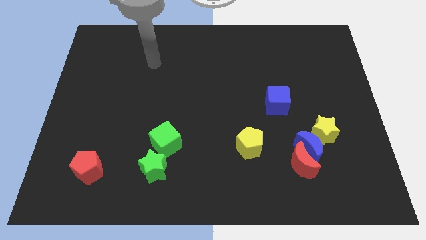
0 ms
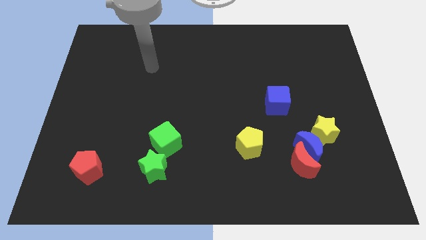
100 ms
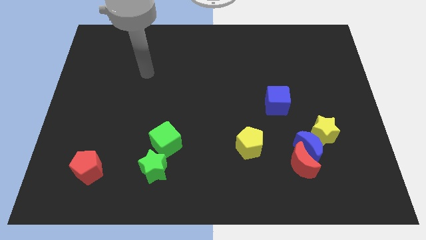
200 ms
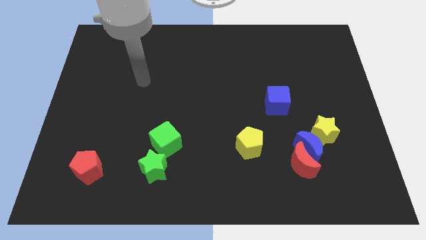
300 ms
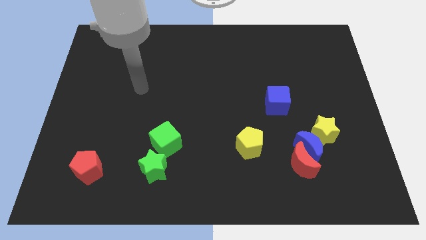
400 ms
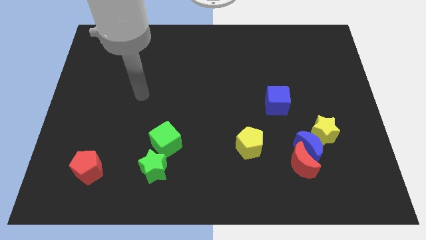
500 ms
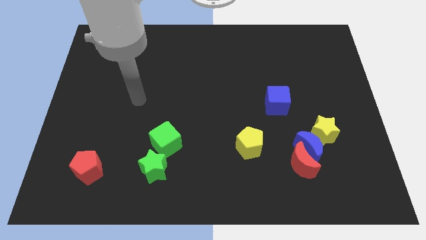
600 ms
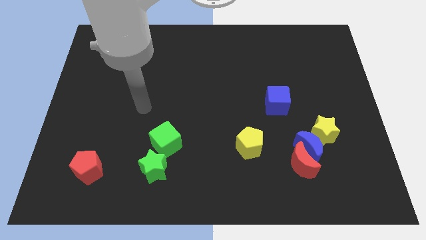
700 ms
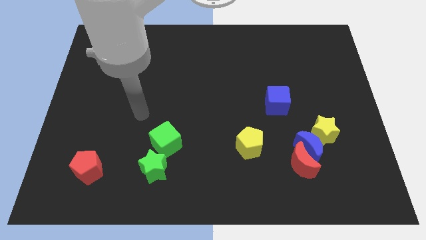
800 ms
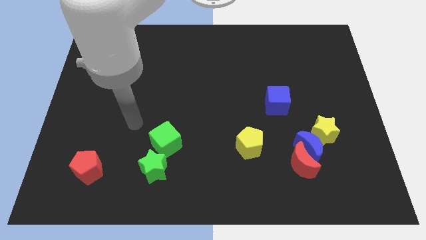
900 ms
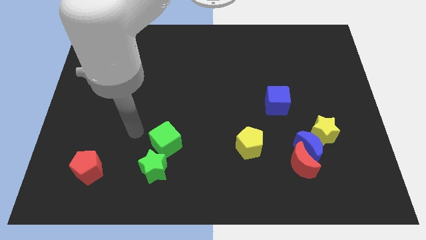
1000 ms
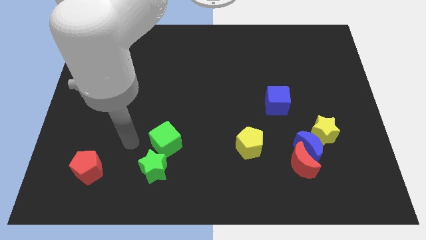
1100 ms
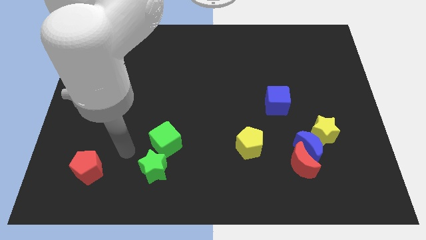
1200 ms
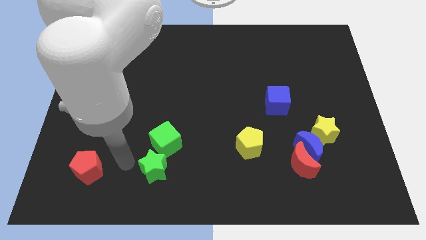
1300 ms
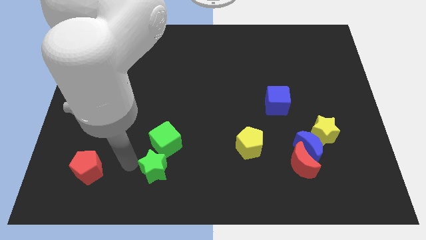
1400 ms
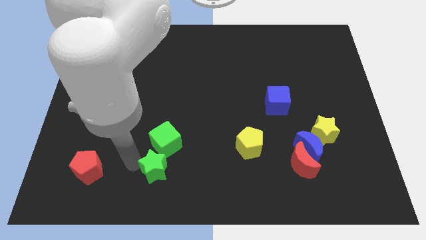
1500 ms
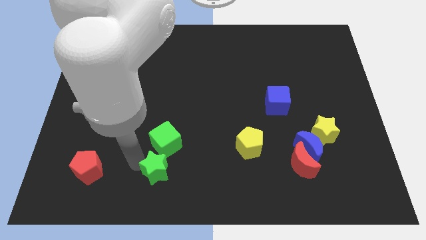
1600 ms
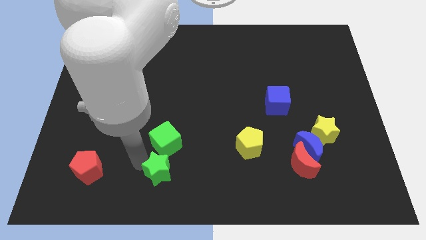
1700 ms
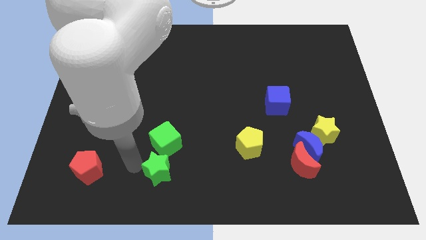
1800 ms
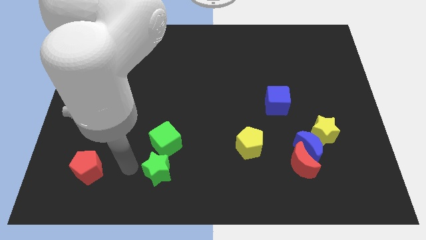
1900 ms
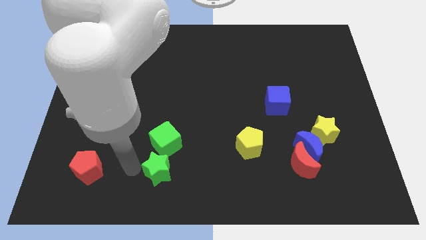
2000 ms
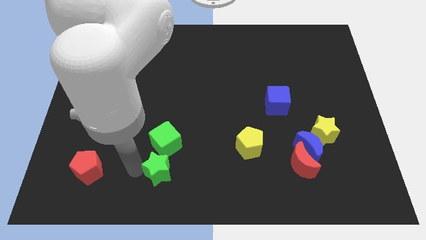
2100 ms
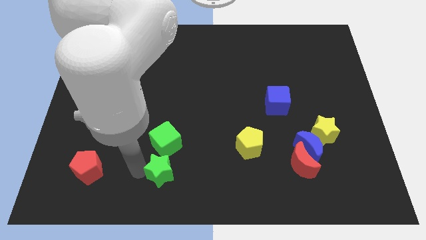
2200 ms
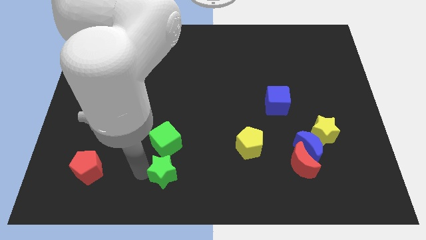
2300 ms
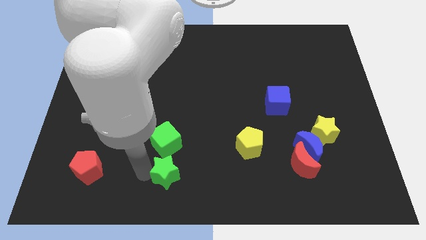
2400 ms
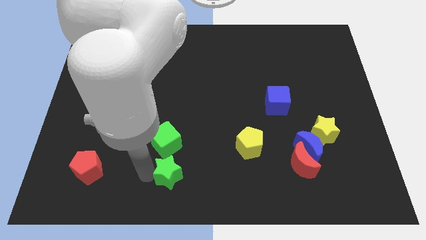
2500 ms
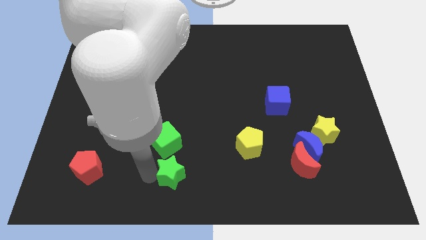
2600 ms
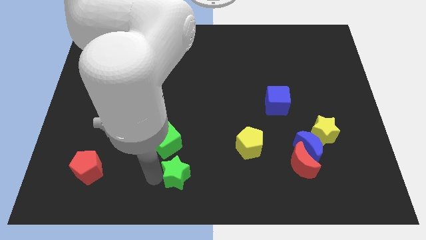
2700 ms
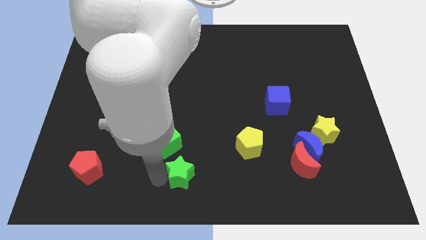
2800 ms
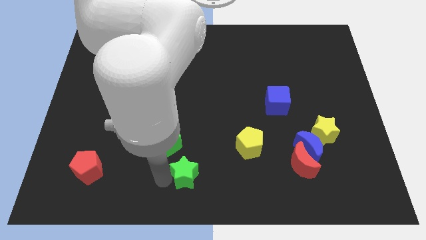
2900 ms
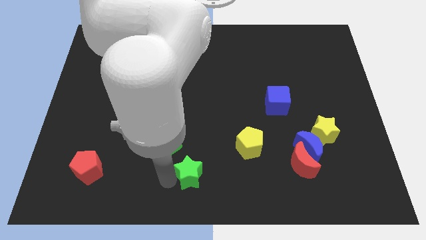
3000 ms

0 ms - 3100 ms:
slightly push the green star right

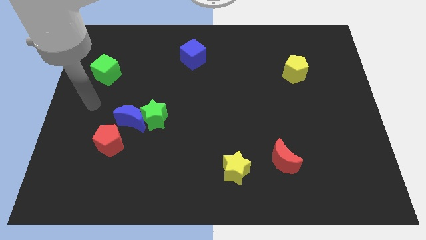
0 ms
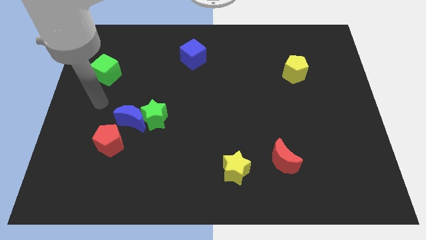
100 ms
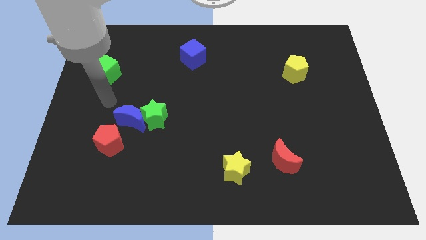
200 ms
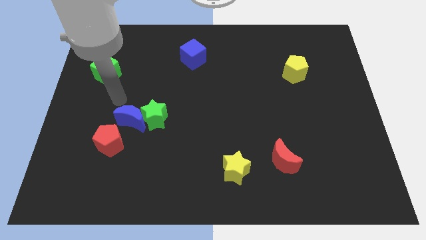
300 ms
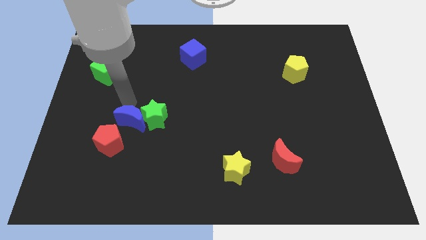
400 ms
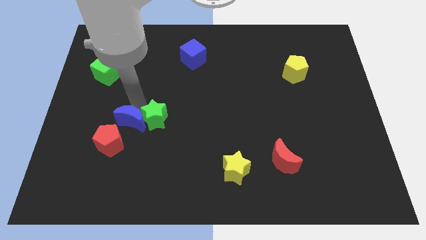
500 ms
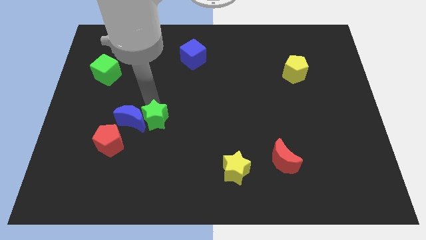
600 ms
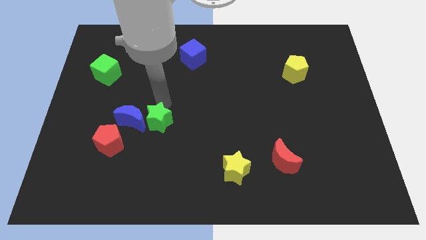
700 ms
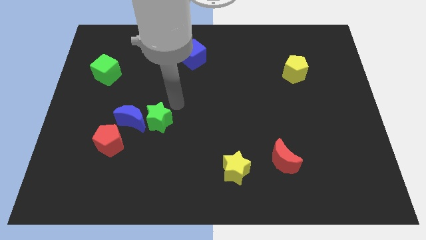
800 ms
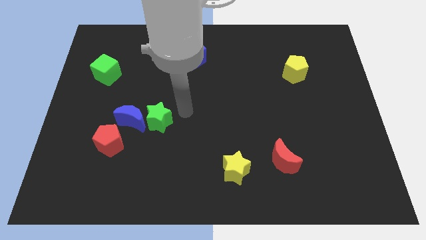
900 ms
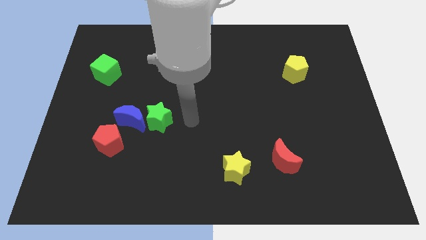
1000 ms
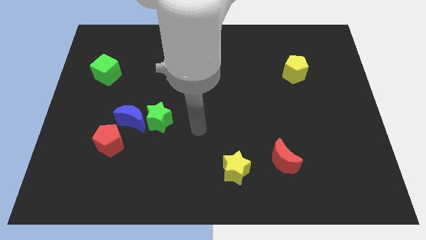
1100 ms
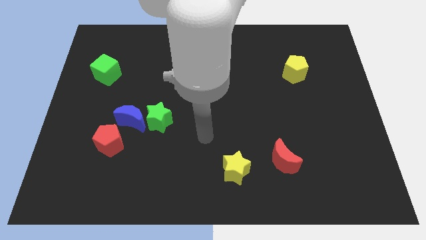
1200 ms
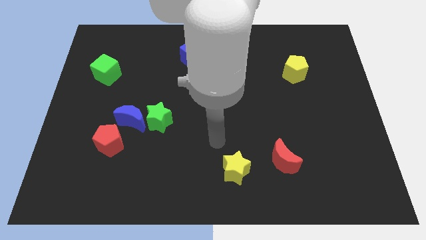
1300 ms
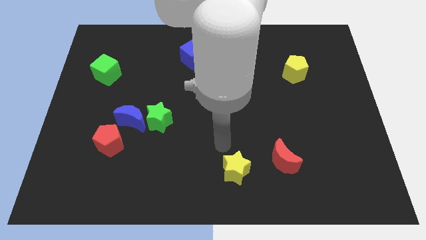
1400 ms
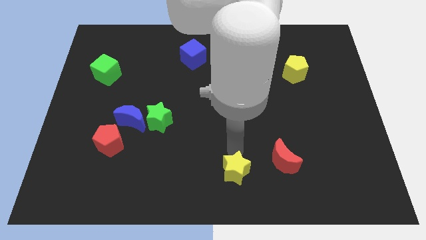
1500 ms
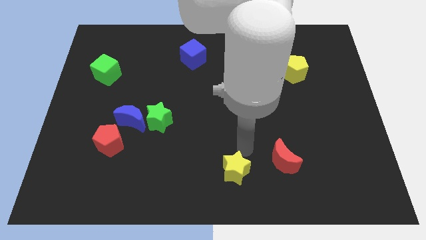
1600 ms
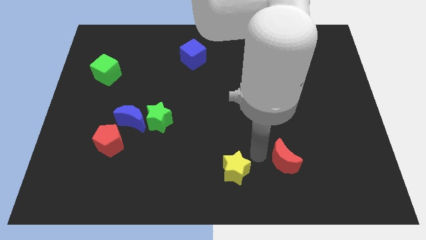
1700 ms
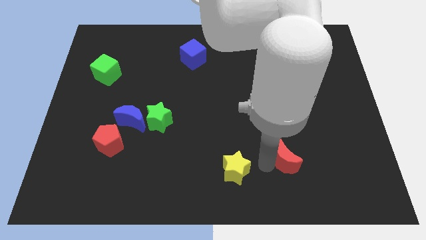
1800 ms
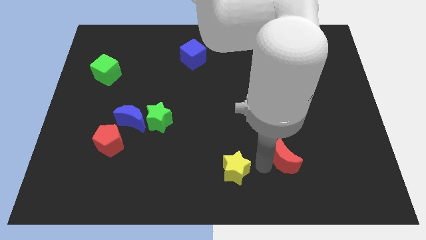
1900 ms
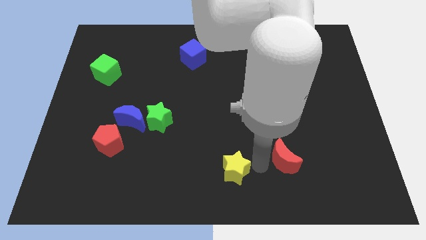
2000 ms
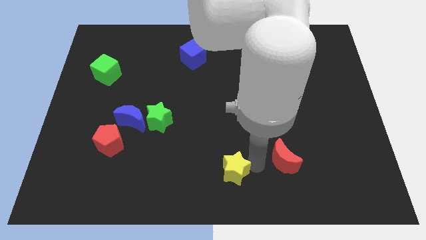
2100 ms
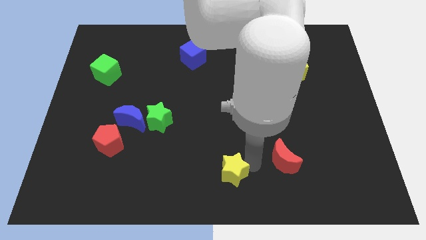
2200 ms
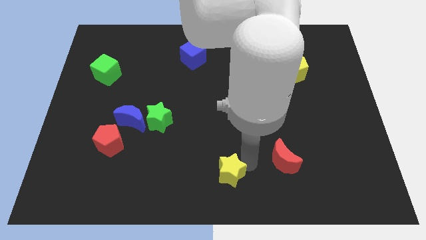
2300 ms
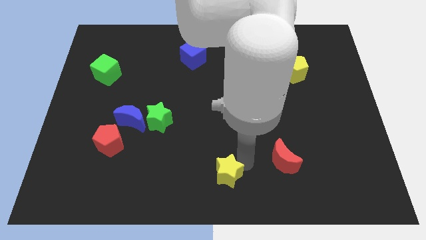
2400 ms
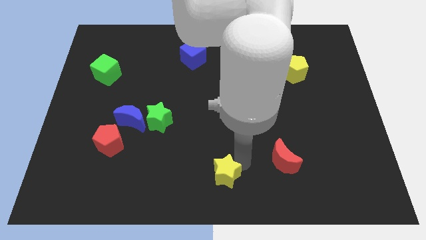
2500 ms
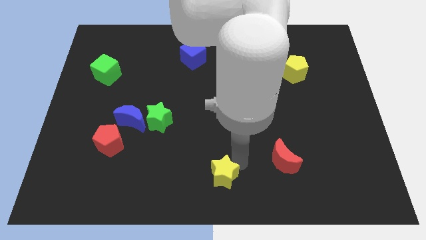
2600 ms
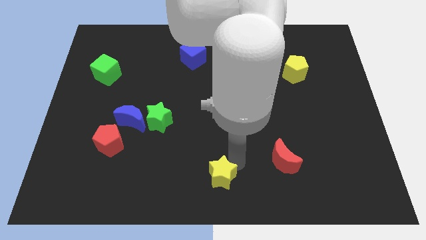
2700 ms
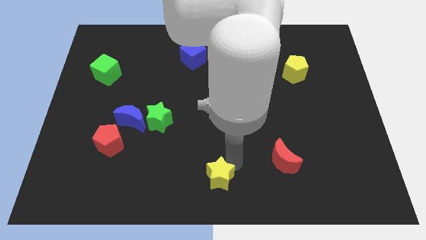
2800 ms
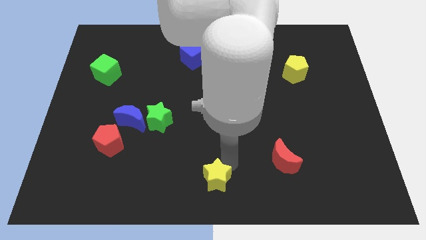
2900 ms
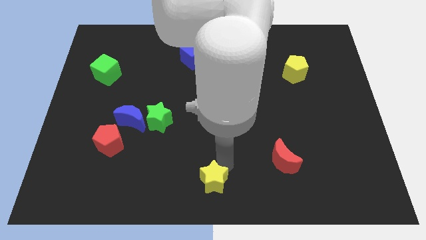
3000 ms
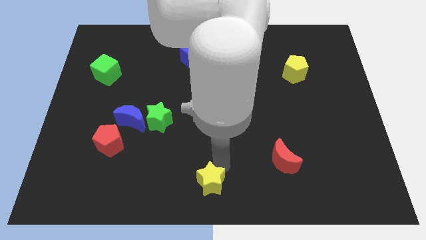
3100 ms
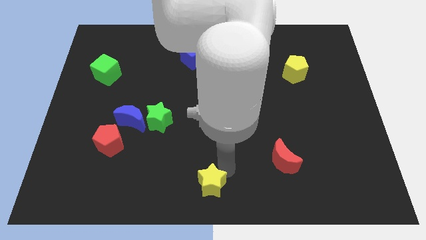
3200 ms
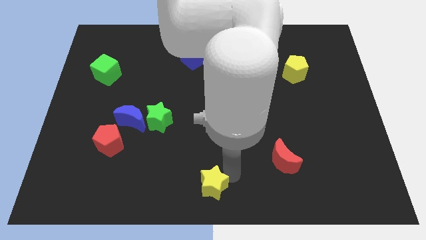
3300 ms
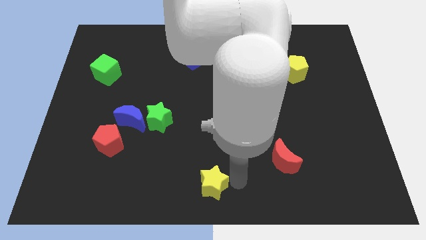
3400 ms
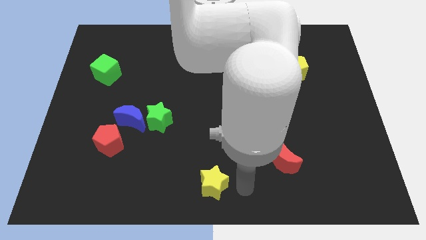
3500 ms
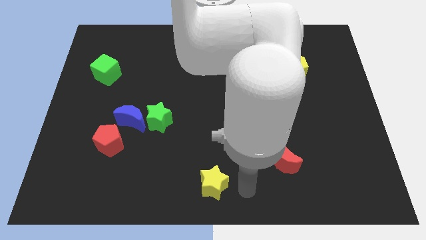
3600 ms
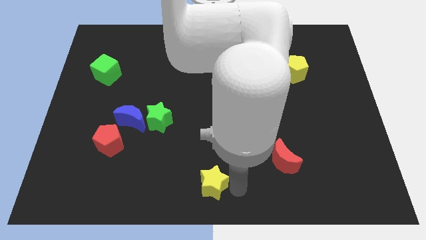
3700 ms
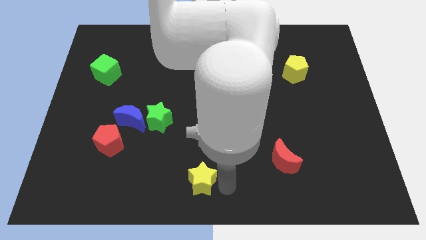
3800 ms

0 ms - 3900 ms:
push the yellow star slightly left

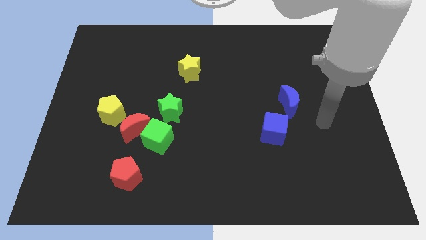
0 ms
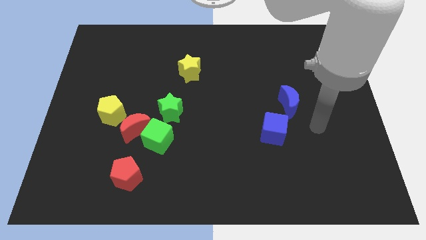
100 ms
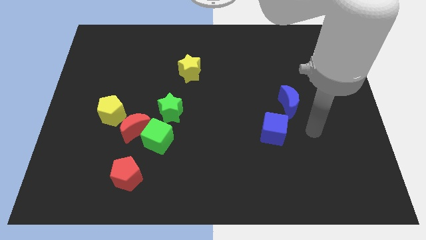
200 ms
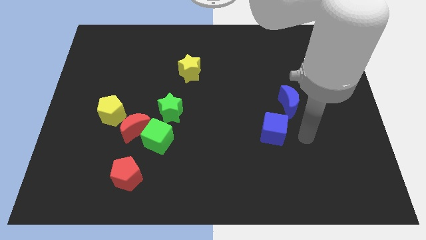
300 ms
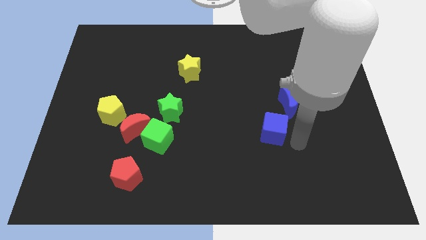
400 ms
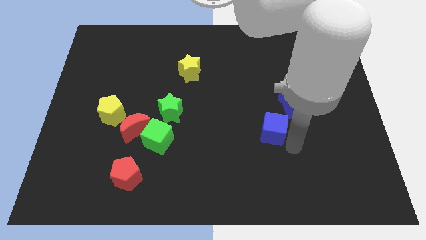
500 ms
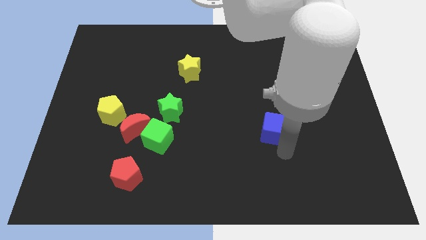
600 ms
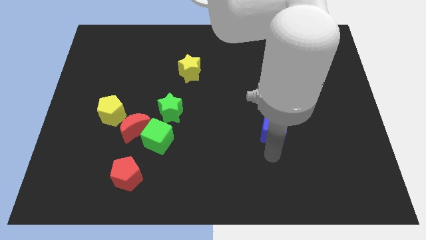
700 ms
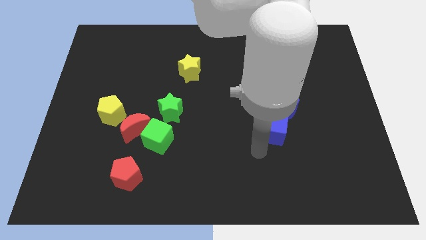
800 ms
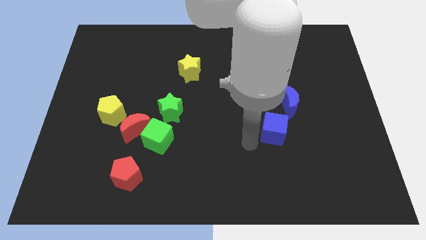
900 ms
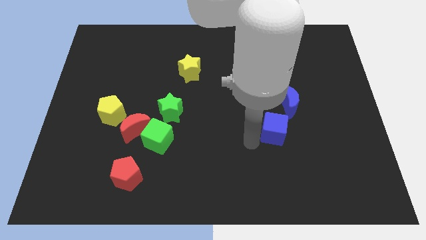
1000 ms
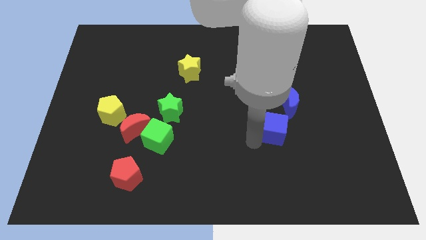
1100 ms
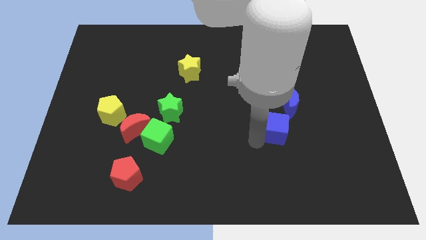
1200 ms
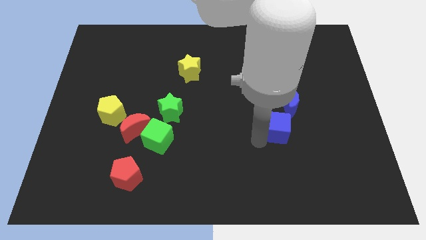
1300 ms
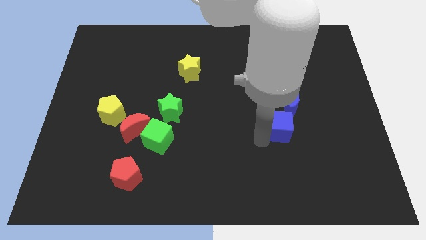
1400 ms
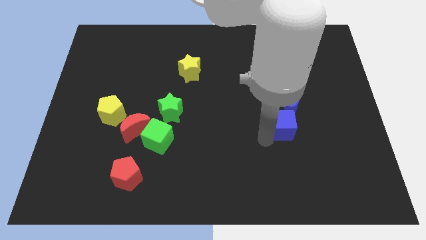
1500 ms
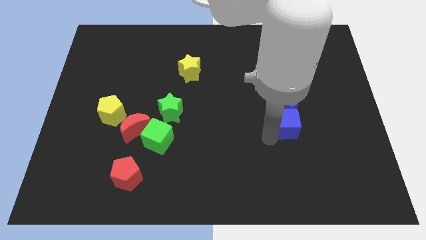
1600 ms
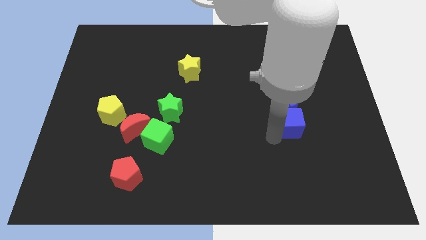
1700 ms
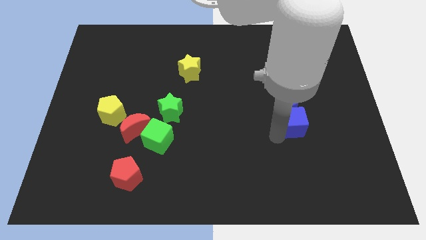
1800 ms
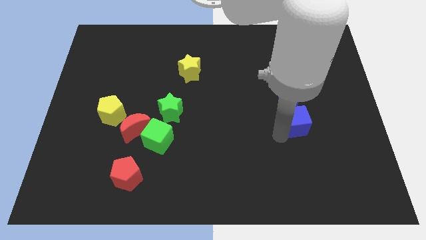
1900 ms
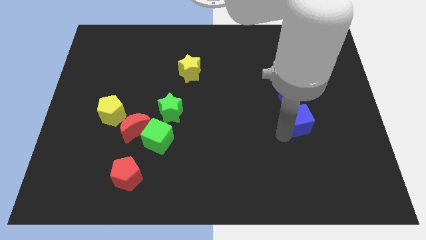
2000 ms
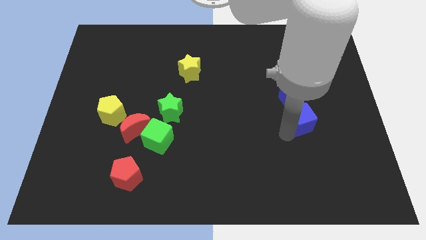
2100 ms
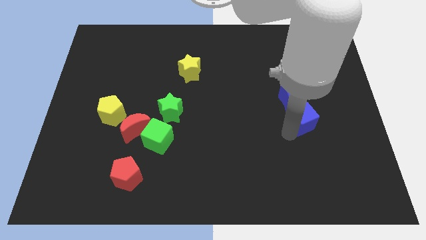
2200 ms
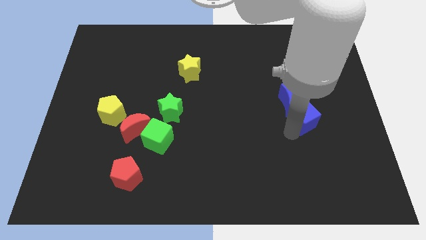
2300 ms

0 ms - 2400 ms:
push the blue cube a little diagonally up and right
